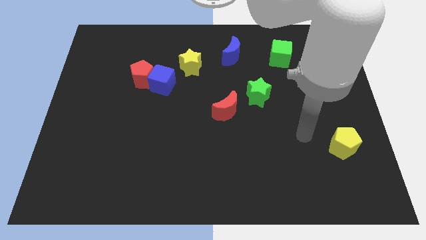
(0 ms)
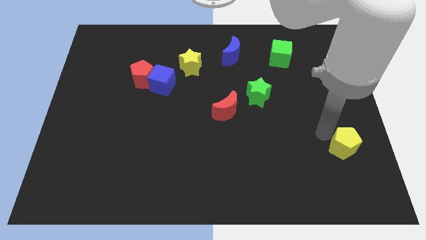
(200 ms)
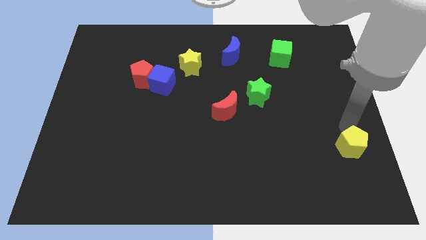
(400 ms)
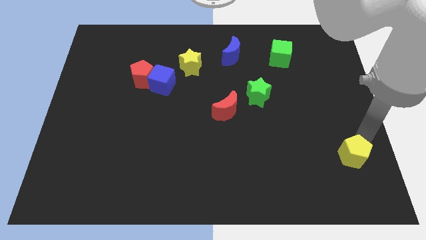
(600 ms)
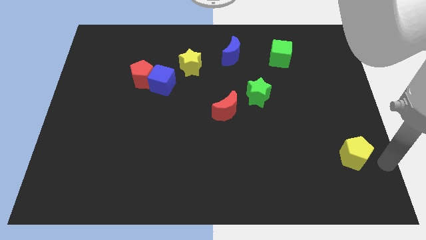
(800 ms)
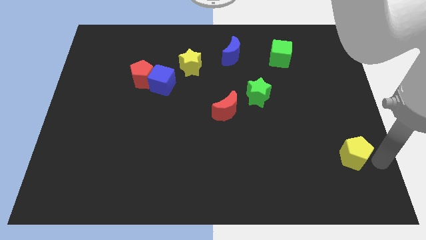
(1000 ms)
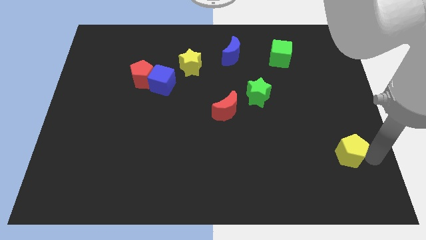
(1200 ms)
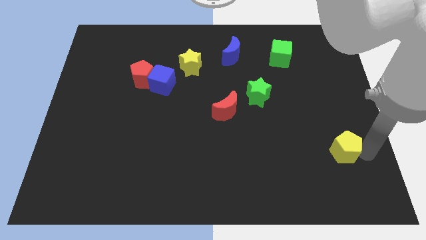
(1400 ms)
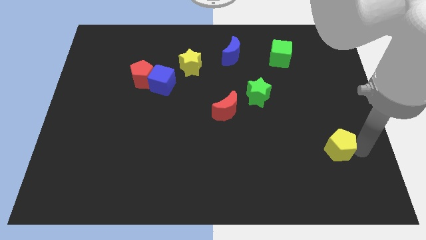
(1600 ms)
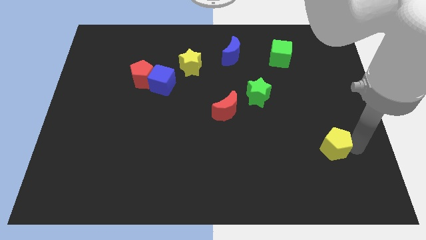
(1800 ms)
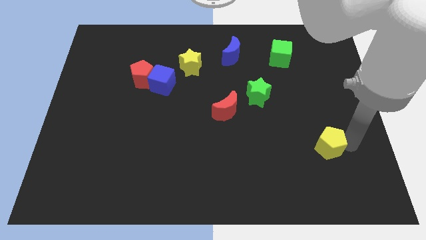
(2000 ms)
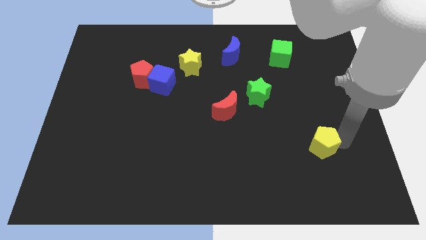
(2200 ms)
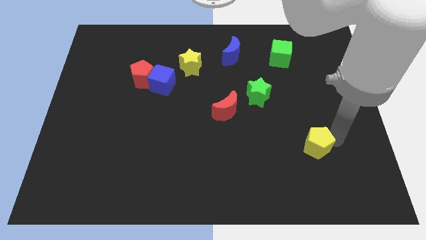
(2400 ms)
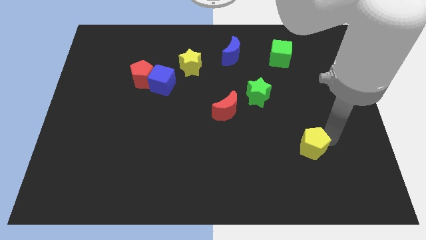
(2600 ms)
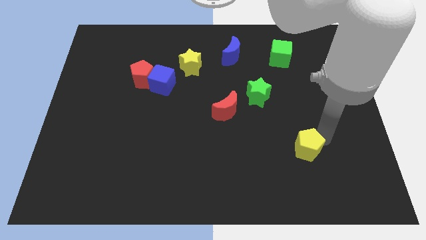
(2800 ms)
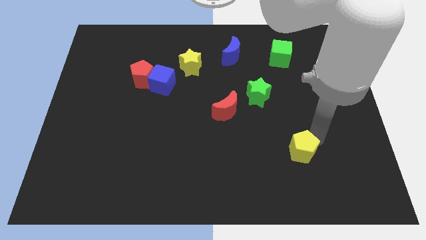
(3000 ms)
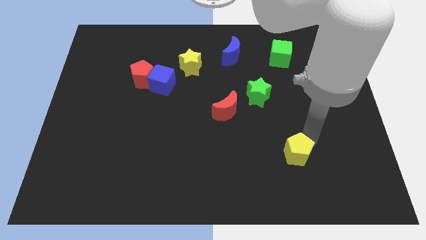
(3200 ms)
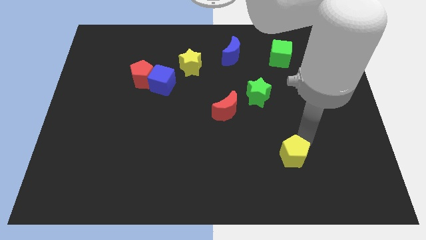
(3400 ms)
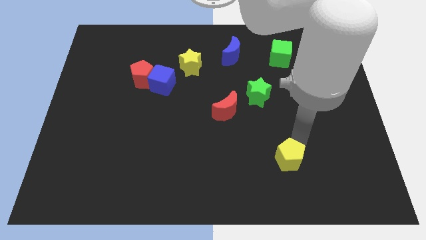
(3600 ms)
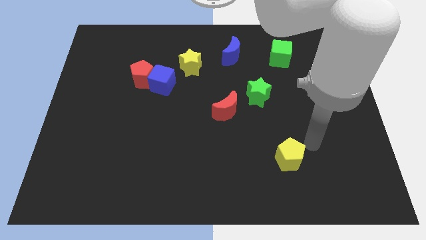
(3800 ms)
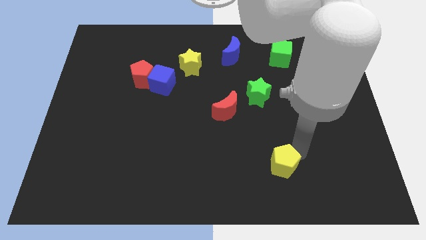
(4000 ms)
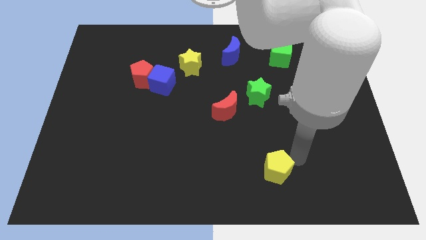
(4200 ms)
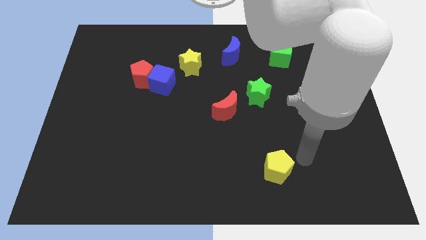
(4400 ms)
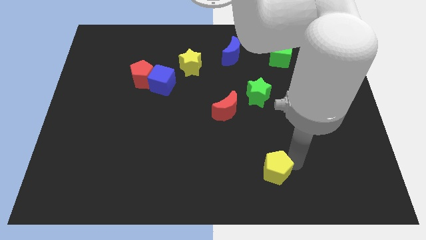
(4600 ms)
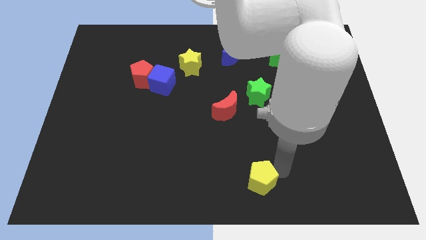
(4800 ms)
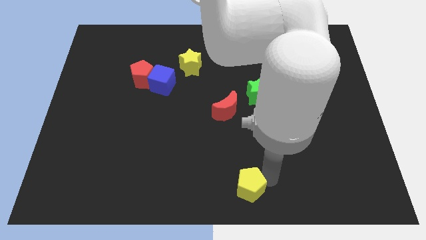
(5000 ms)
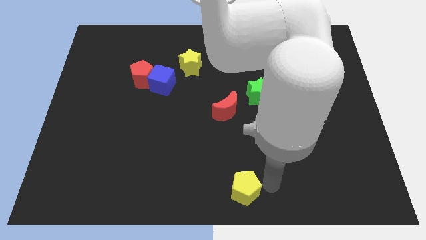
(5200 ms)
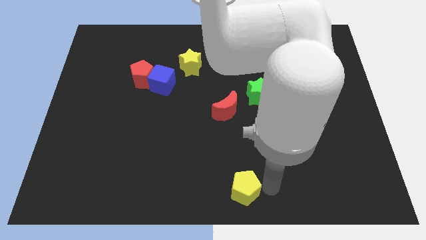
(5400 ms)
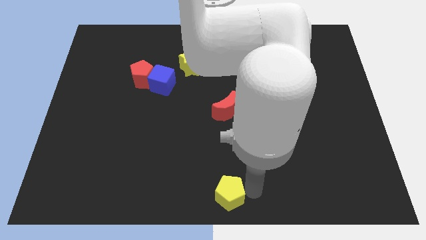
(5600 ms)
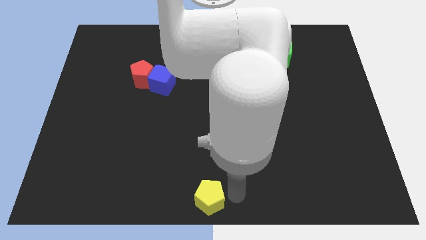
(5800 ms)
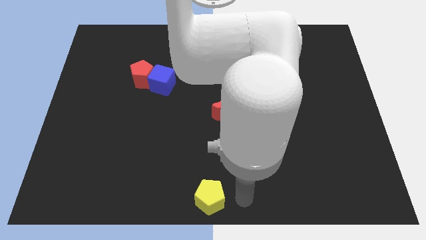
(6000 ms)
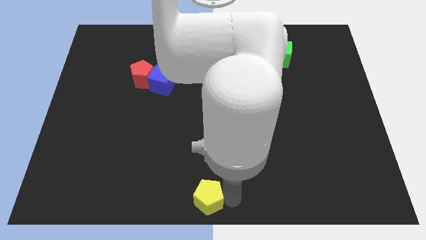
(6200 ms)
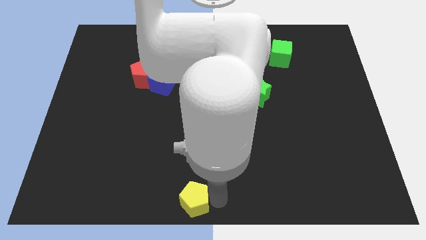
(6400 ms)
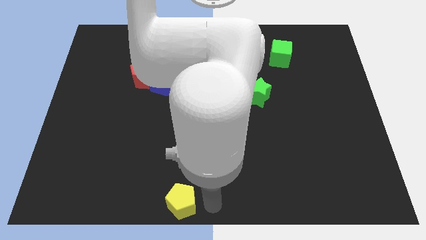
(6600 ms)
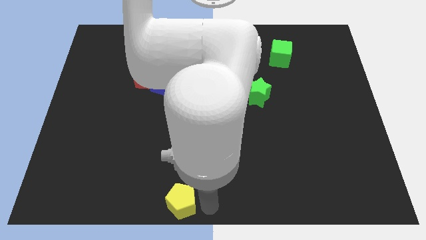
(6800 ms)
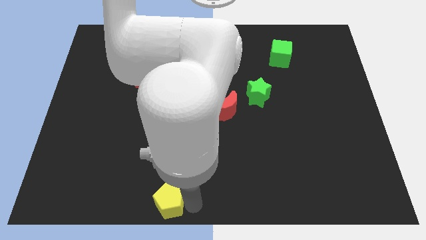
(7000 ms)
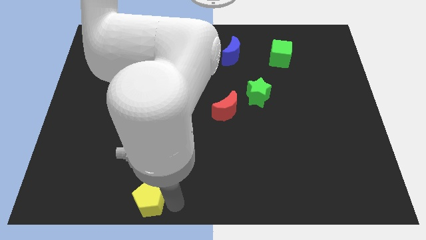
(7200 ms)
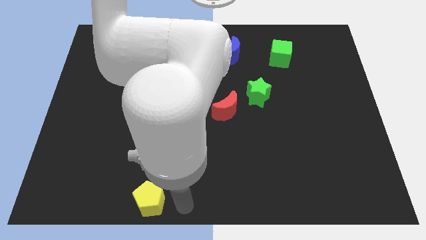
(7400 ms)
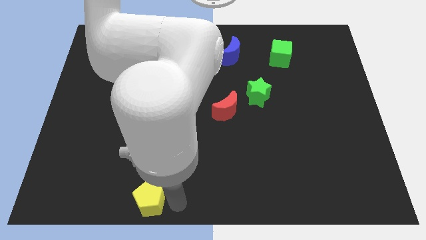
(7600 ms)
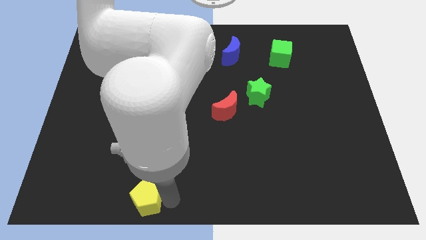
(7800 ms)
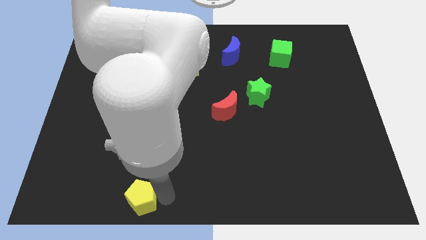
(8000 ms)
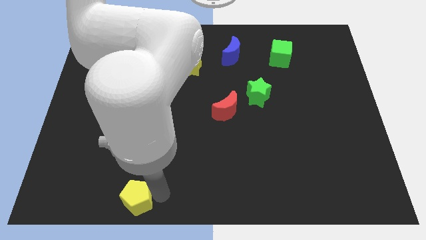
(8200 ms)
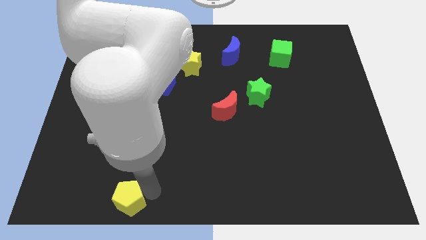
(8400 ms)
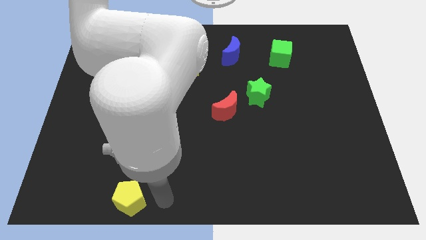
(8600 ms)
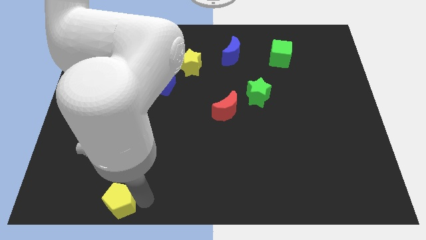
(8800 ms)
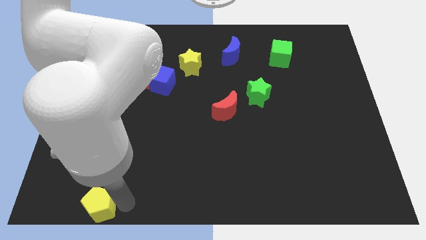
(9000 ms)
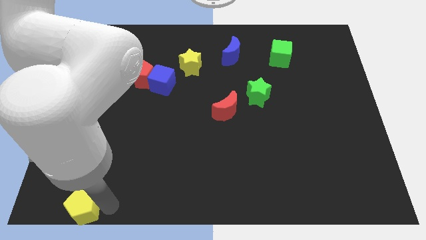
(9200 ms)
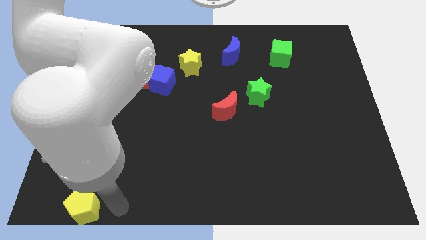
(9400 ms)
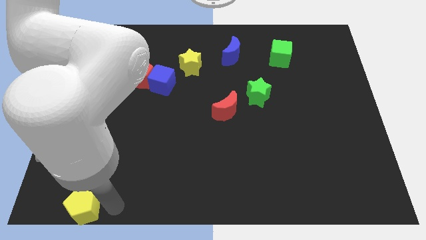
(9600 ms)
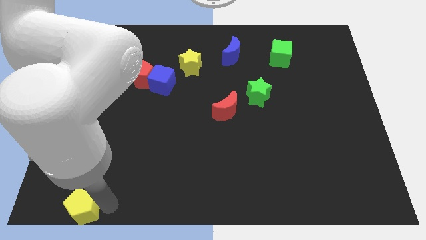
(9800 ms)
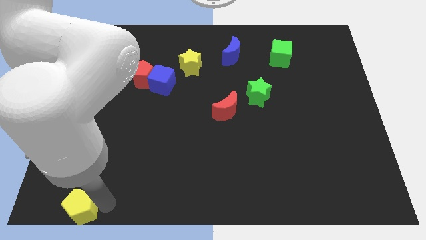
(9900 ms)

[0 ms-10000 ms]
slide the yellow pentagon to the bottom left corner
